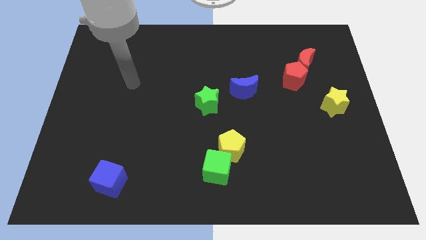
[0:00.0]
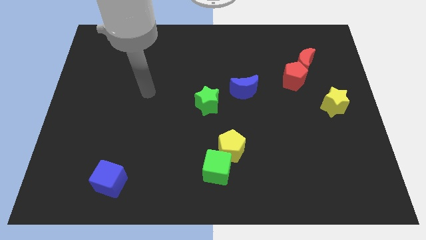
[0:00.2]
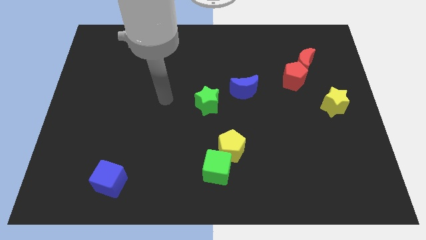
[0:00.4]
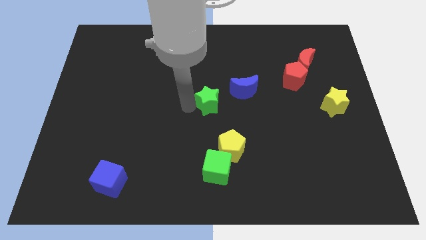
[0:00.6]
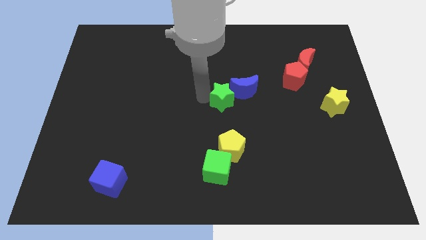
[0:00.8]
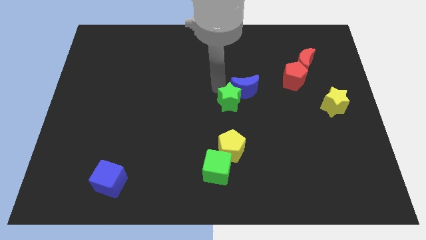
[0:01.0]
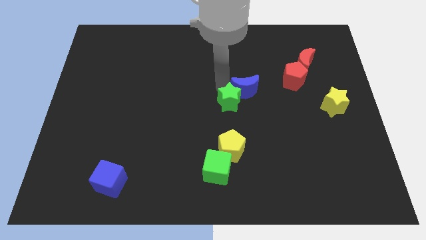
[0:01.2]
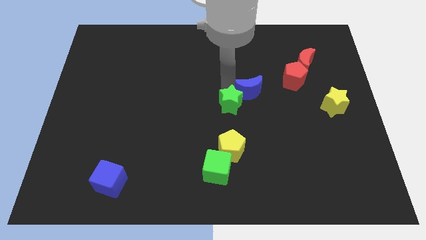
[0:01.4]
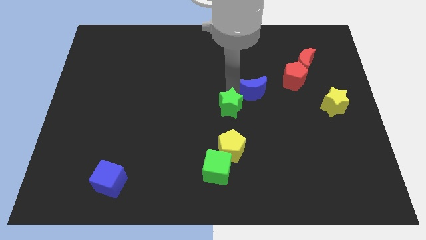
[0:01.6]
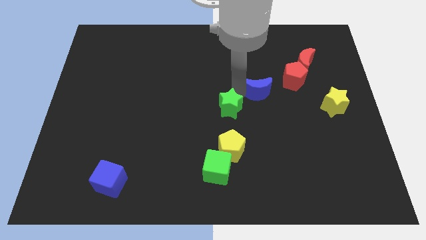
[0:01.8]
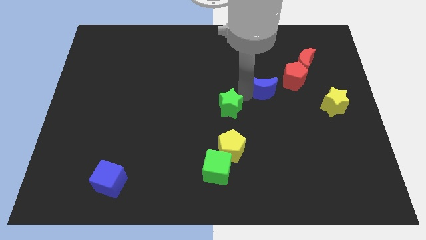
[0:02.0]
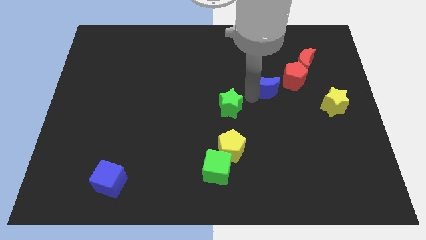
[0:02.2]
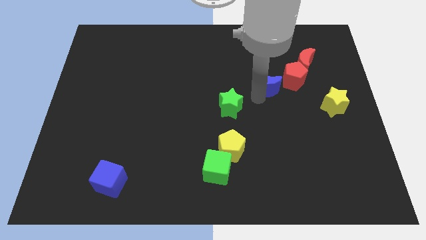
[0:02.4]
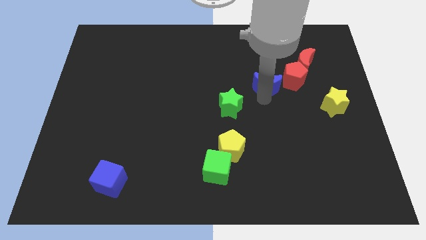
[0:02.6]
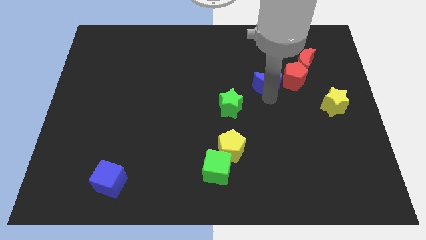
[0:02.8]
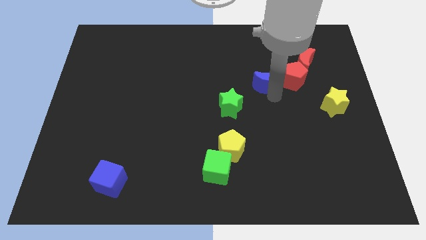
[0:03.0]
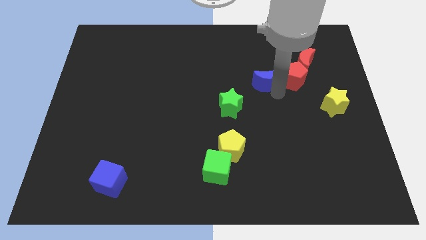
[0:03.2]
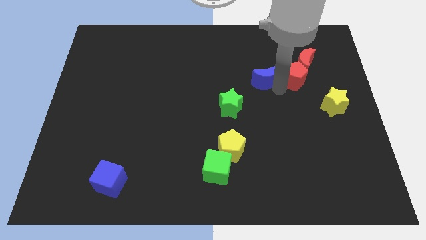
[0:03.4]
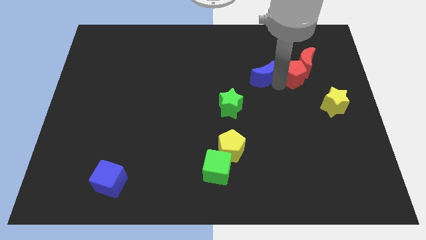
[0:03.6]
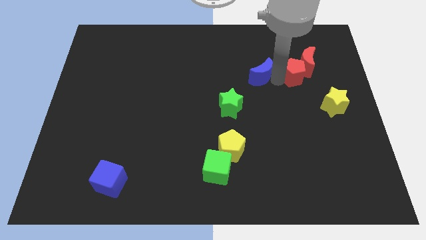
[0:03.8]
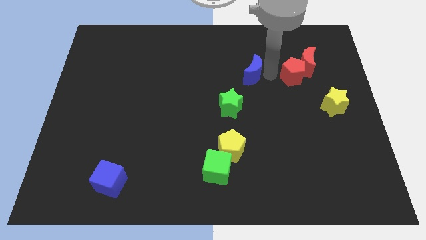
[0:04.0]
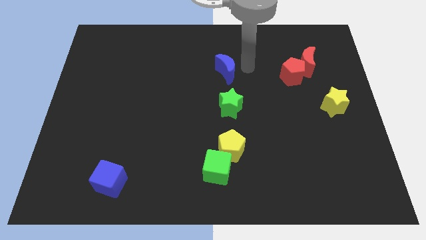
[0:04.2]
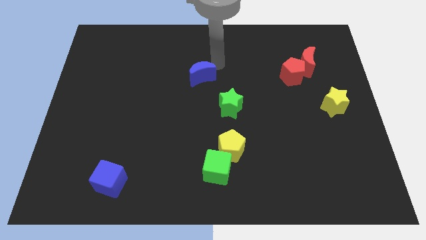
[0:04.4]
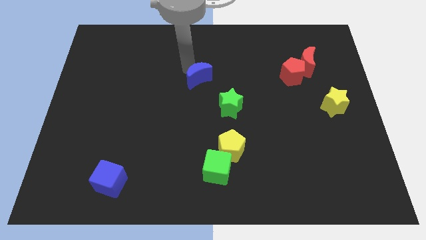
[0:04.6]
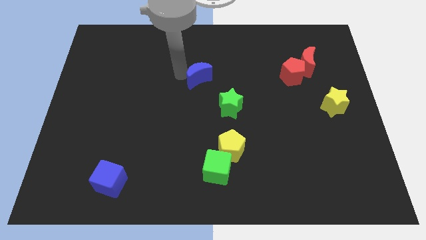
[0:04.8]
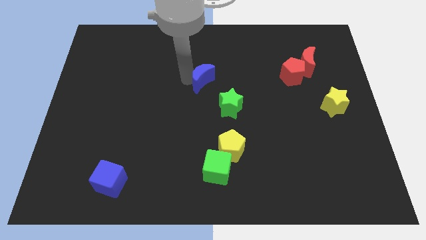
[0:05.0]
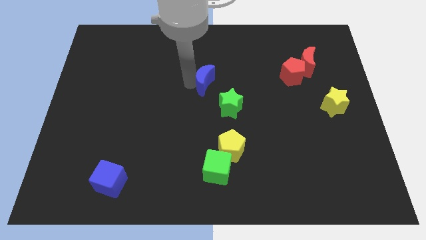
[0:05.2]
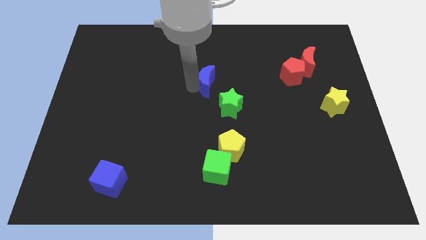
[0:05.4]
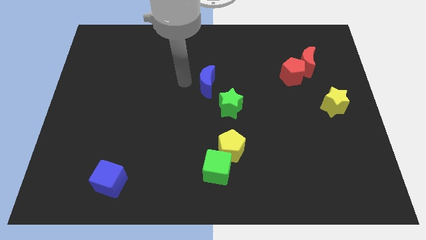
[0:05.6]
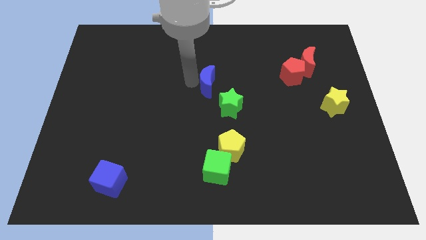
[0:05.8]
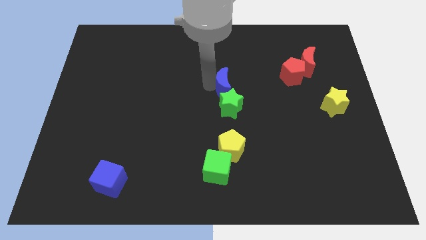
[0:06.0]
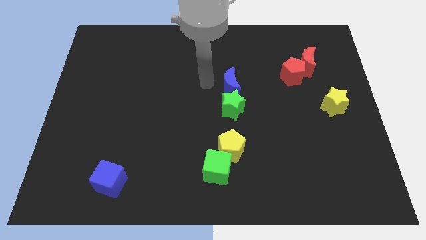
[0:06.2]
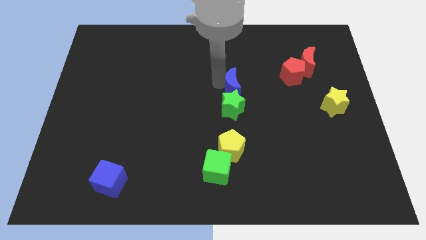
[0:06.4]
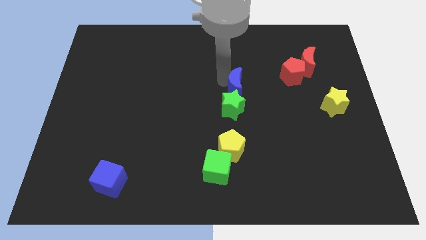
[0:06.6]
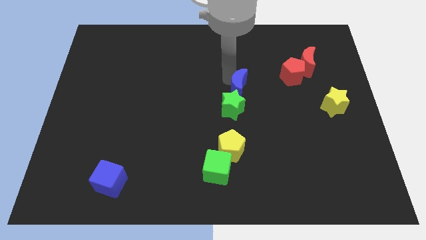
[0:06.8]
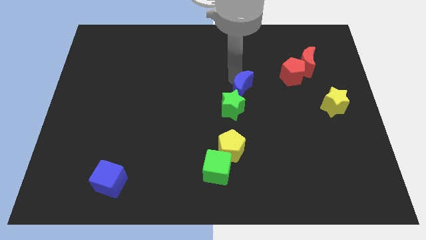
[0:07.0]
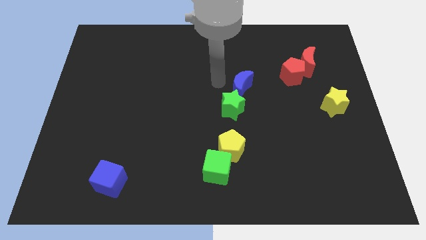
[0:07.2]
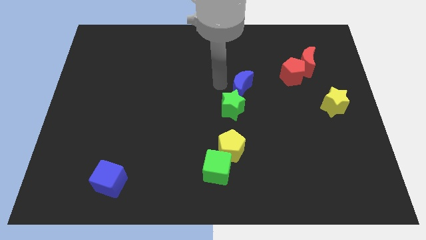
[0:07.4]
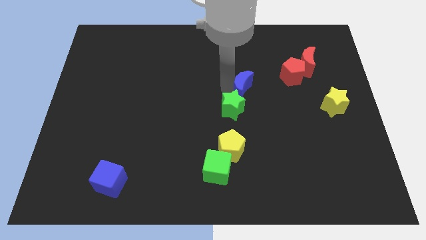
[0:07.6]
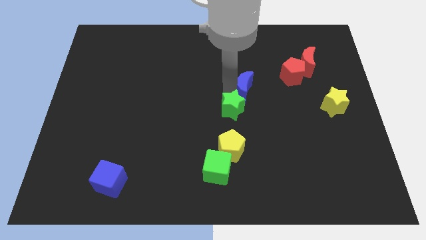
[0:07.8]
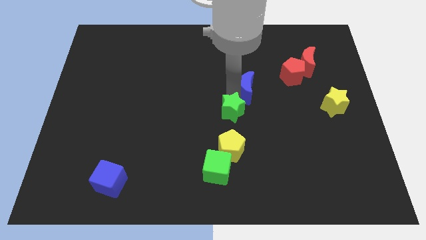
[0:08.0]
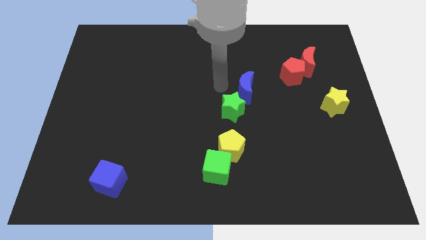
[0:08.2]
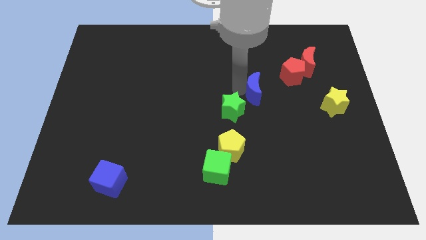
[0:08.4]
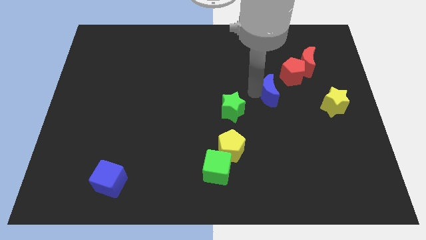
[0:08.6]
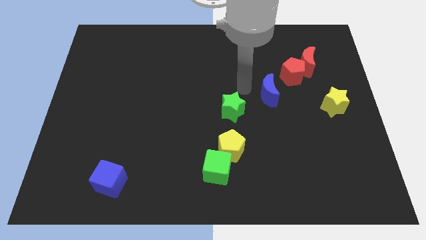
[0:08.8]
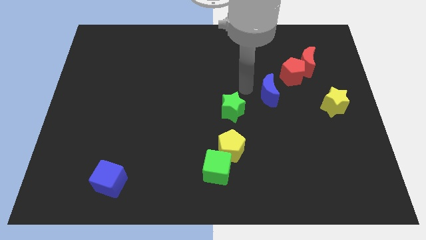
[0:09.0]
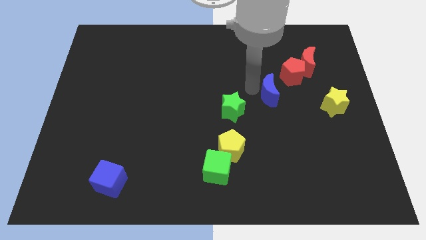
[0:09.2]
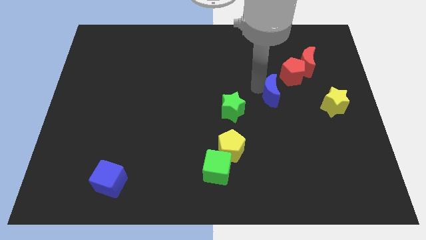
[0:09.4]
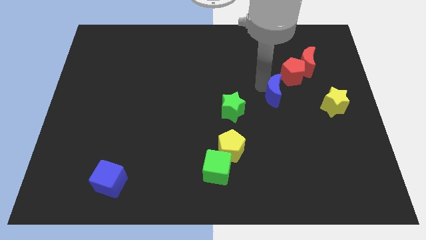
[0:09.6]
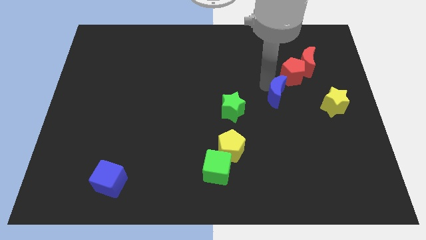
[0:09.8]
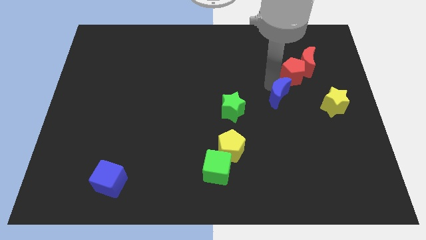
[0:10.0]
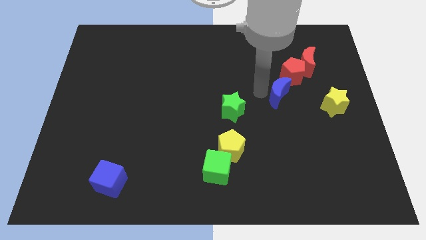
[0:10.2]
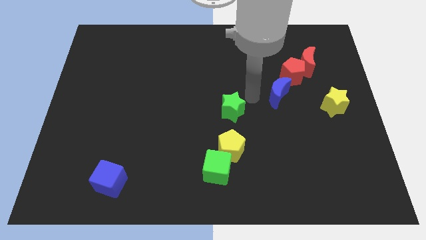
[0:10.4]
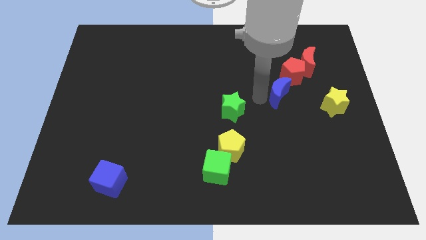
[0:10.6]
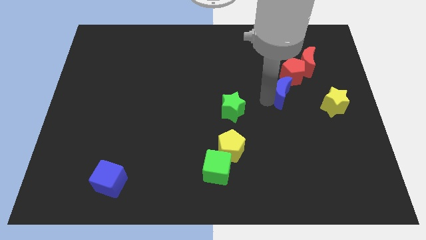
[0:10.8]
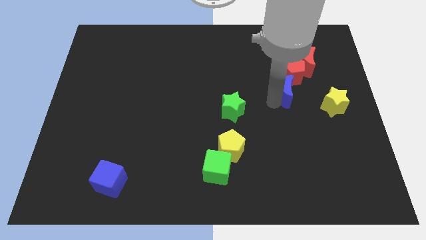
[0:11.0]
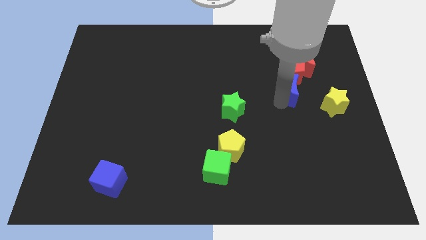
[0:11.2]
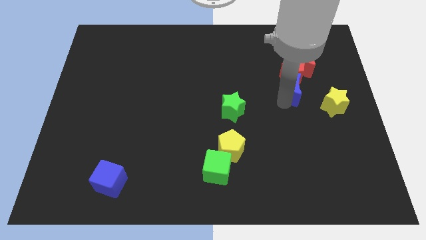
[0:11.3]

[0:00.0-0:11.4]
put the blue moon to the bottom right of the red pentagon
